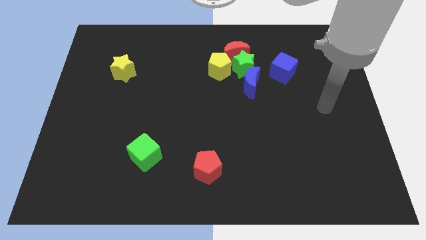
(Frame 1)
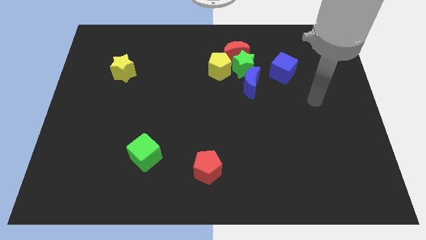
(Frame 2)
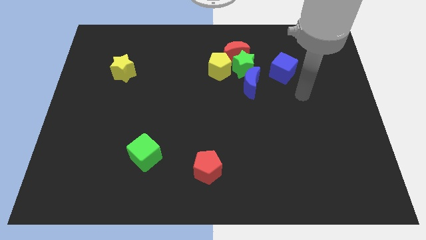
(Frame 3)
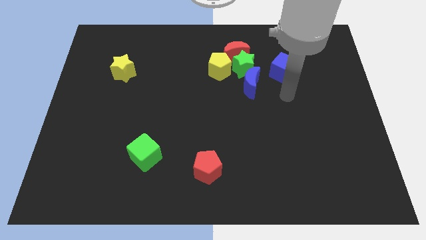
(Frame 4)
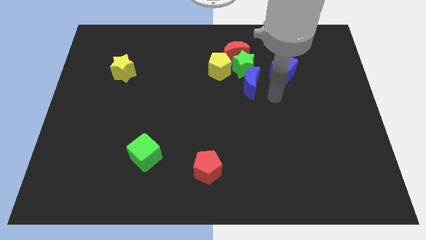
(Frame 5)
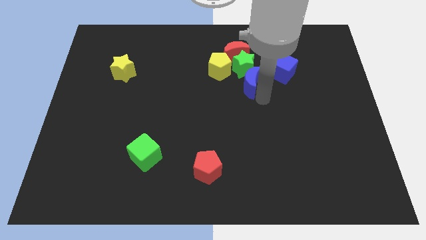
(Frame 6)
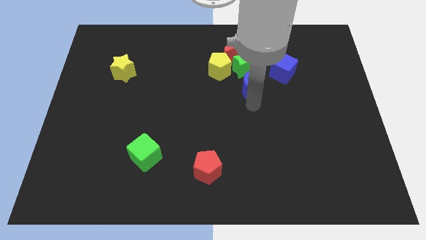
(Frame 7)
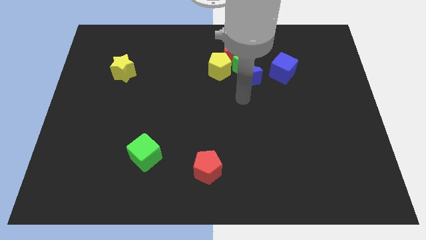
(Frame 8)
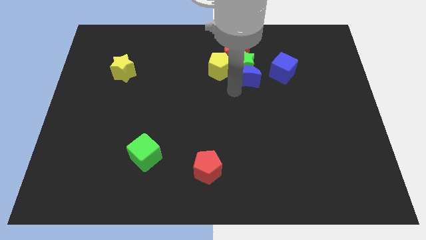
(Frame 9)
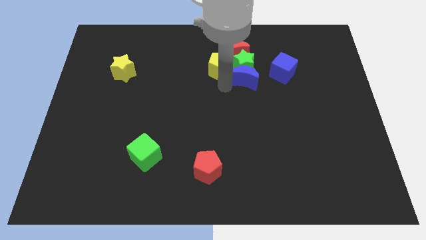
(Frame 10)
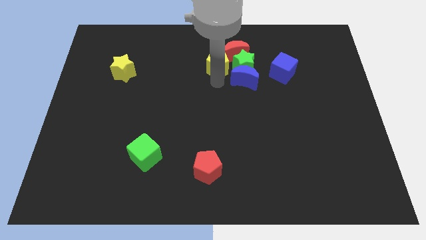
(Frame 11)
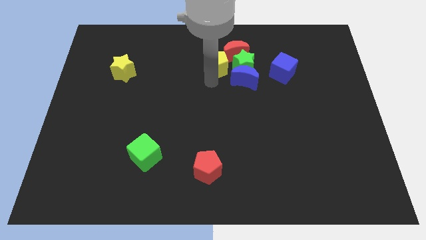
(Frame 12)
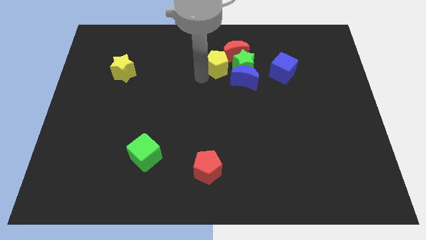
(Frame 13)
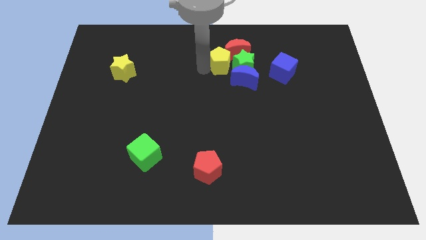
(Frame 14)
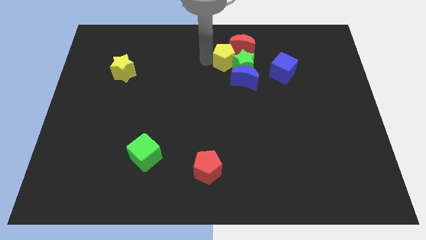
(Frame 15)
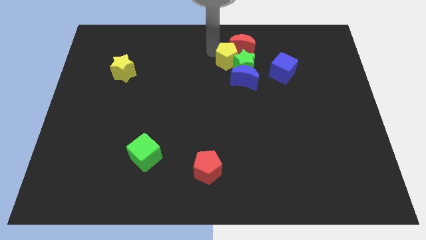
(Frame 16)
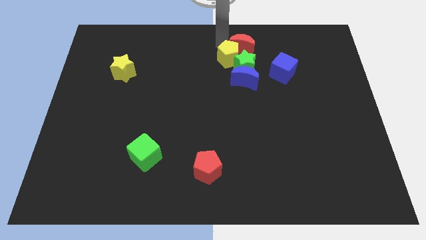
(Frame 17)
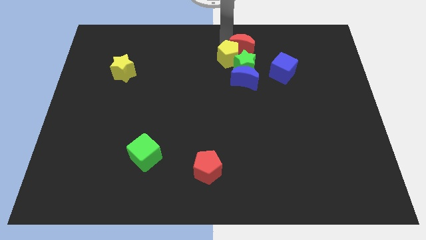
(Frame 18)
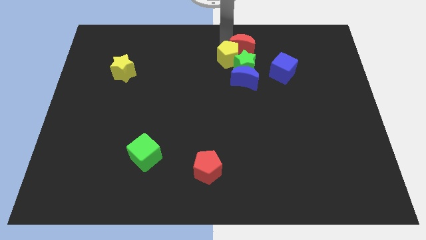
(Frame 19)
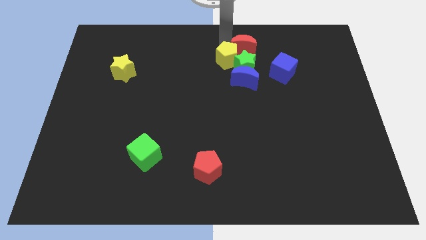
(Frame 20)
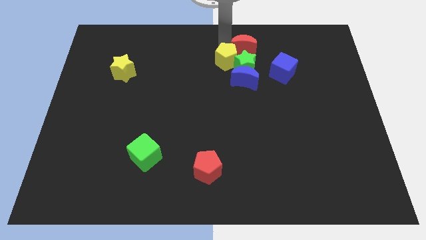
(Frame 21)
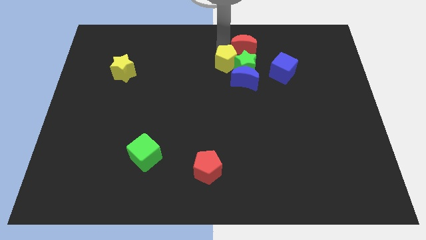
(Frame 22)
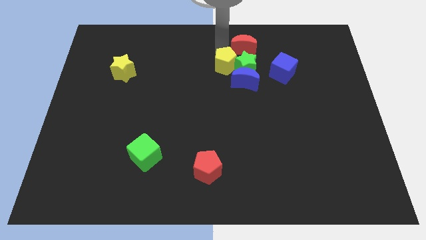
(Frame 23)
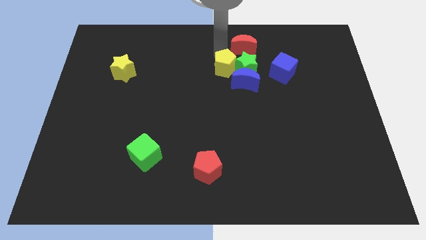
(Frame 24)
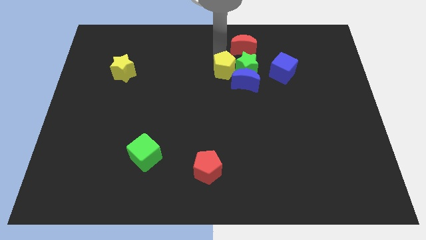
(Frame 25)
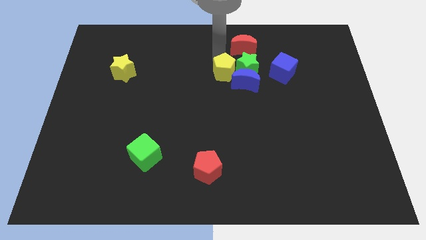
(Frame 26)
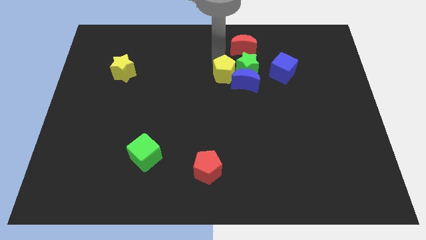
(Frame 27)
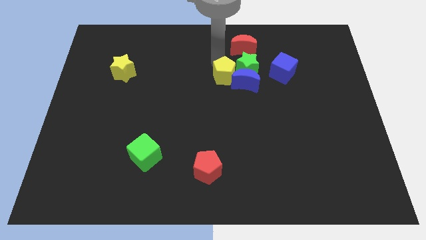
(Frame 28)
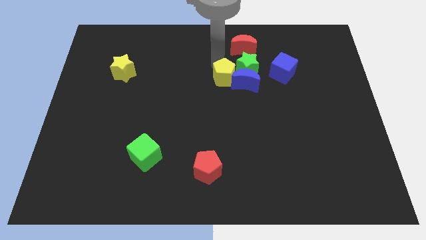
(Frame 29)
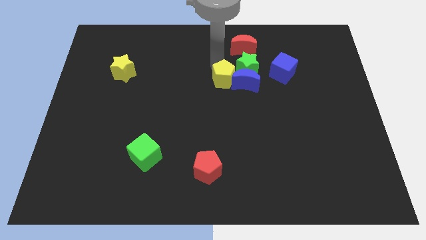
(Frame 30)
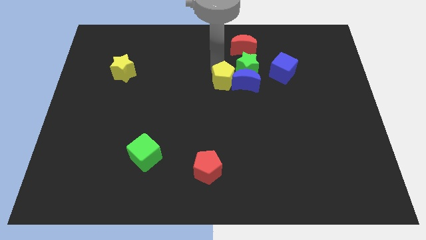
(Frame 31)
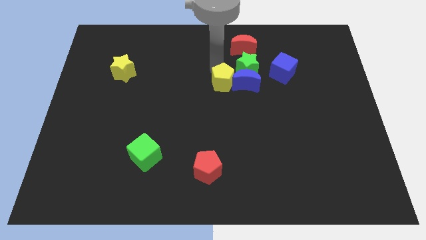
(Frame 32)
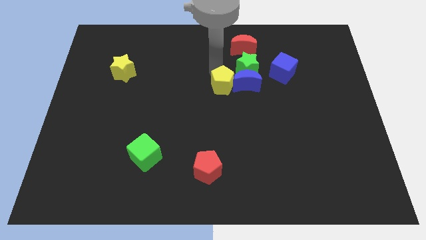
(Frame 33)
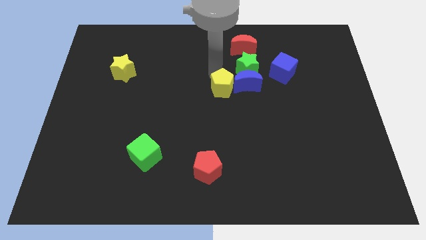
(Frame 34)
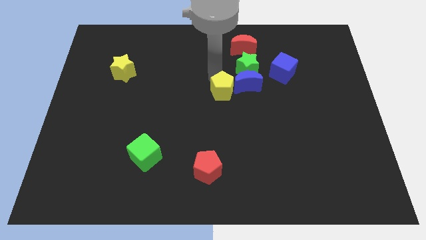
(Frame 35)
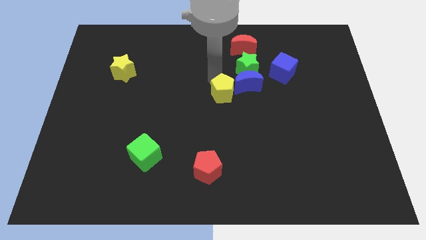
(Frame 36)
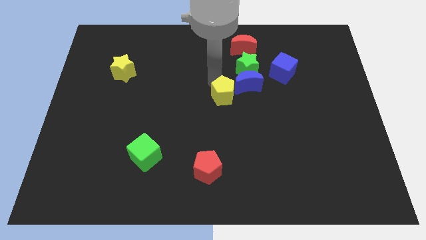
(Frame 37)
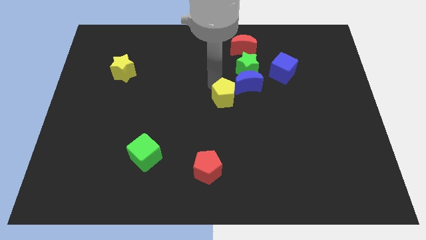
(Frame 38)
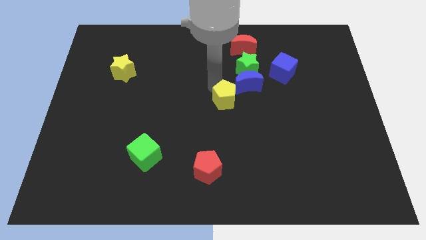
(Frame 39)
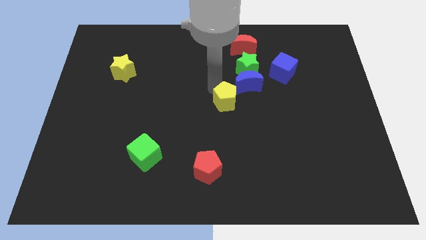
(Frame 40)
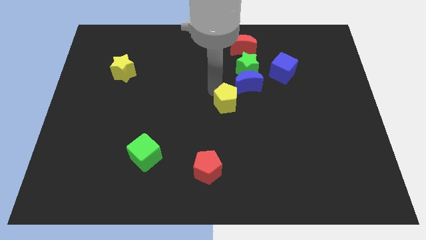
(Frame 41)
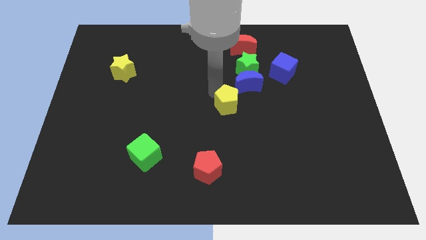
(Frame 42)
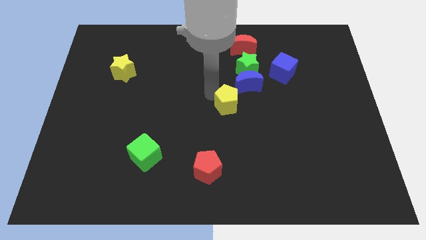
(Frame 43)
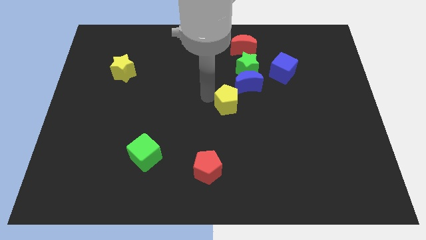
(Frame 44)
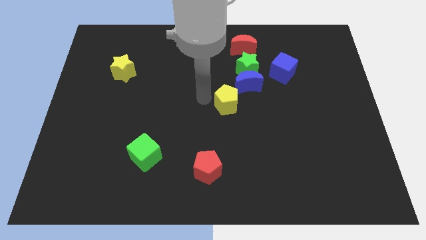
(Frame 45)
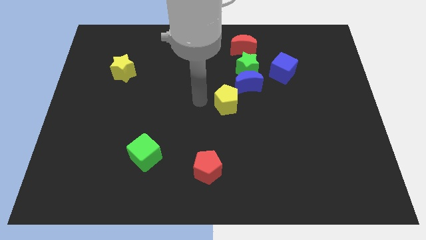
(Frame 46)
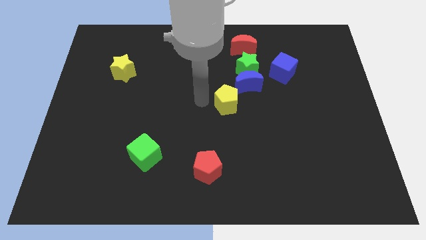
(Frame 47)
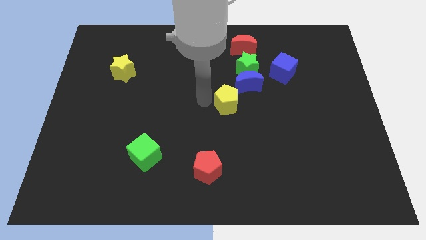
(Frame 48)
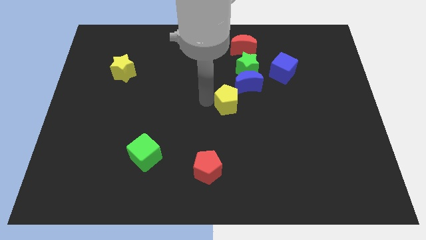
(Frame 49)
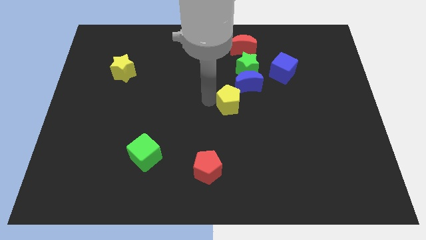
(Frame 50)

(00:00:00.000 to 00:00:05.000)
move the yellow pentagon to the bottom side of the blue moon

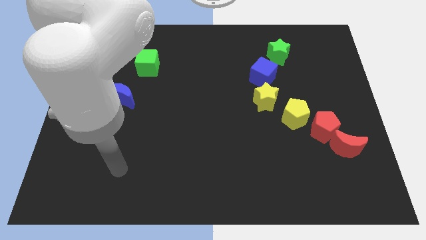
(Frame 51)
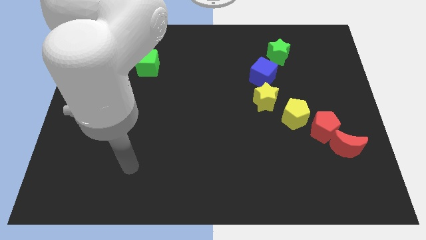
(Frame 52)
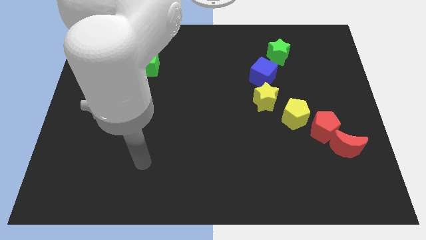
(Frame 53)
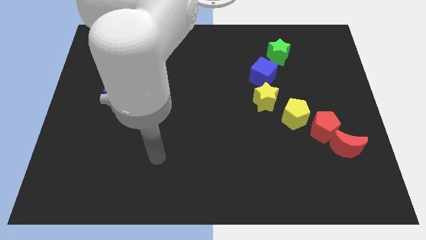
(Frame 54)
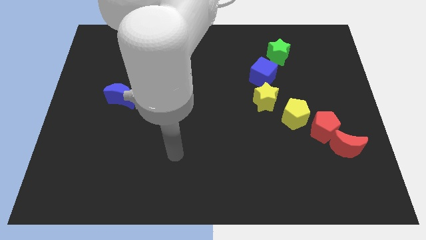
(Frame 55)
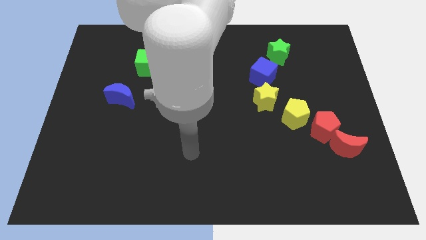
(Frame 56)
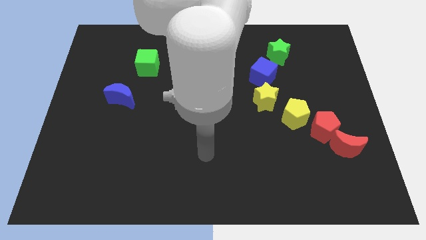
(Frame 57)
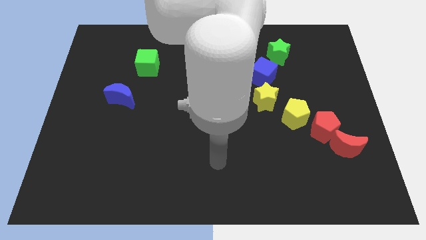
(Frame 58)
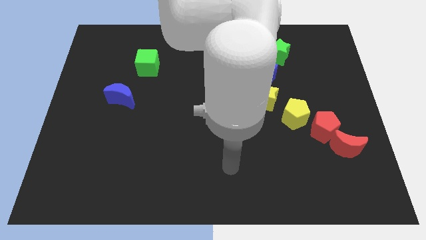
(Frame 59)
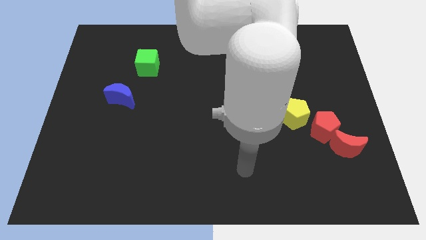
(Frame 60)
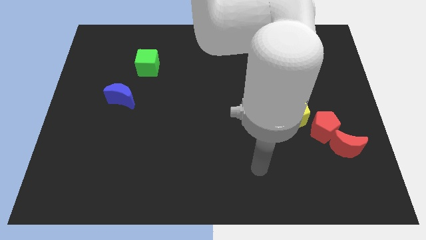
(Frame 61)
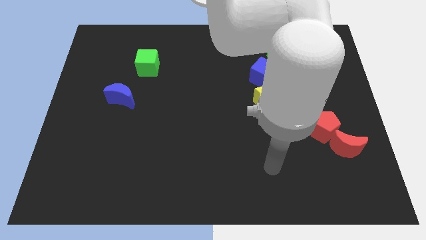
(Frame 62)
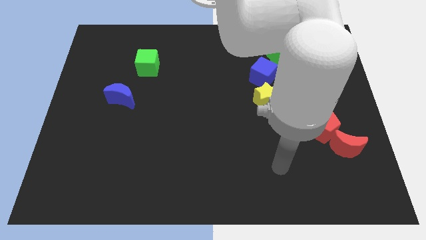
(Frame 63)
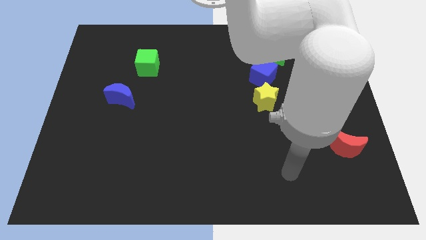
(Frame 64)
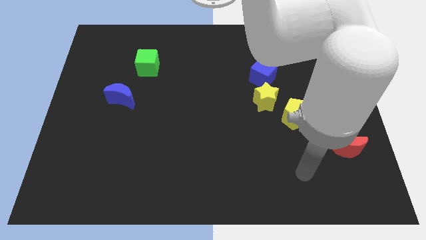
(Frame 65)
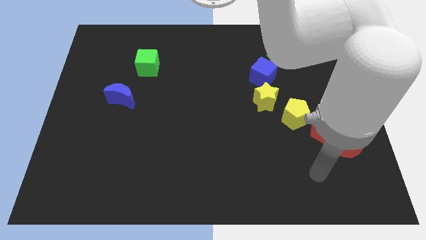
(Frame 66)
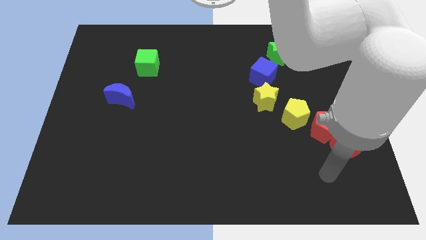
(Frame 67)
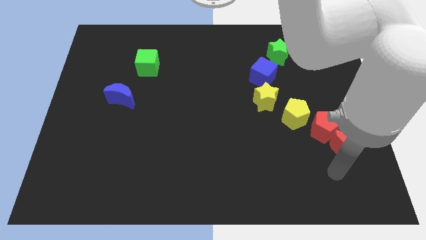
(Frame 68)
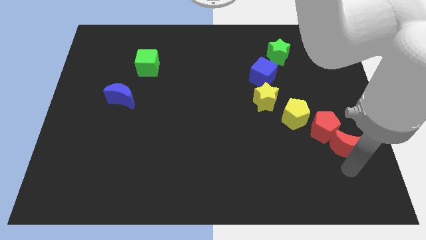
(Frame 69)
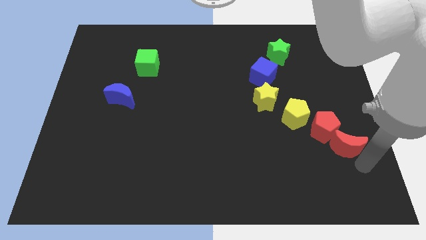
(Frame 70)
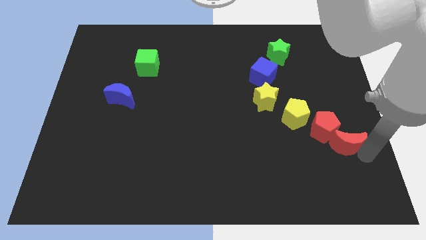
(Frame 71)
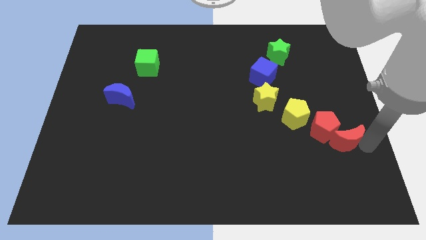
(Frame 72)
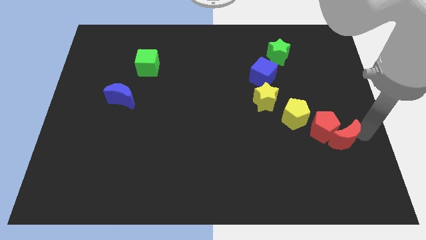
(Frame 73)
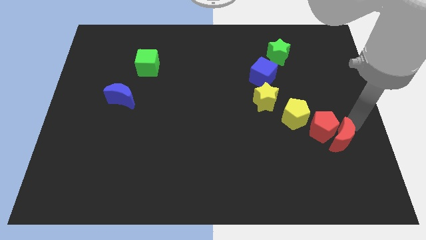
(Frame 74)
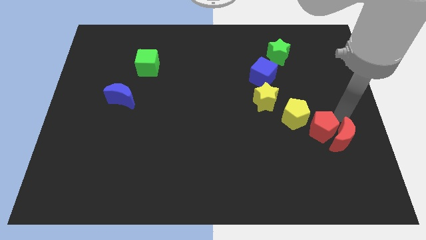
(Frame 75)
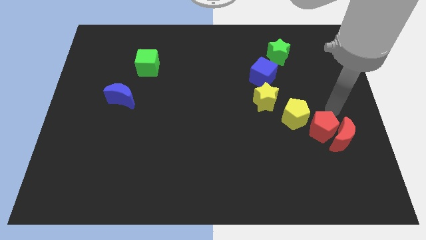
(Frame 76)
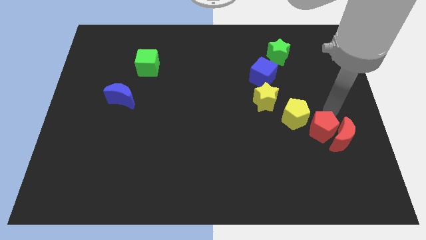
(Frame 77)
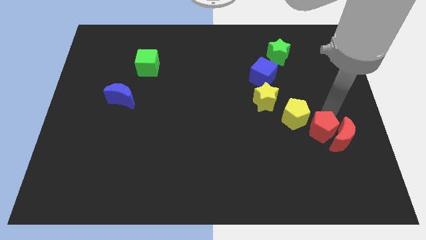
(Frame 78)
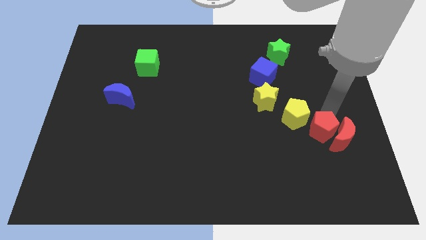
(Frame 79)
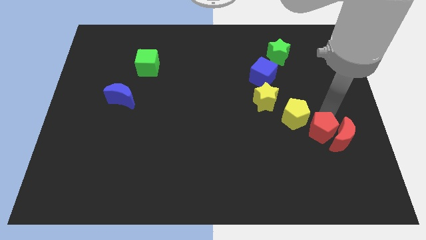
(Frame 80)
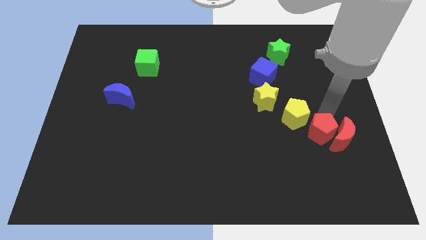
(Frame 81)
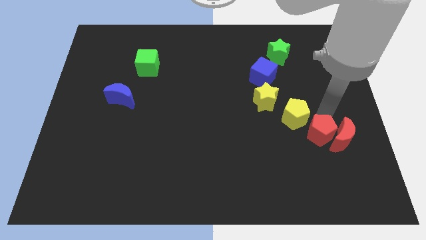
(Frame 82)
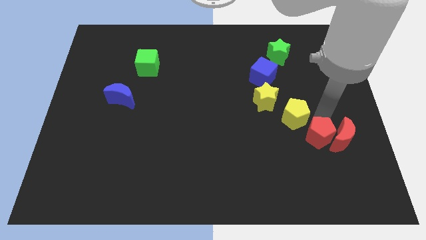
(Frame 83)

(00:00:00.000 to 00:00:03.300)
slide the red pentagon to the bottom side of the yellow pentagon
